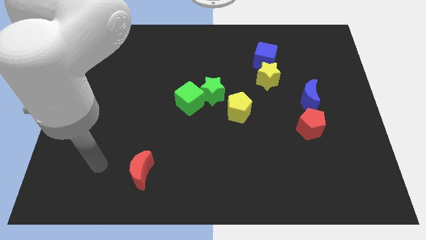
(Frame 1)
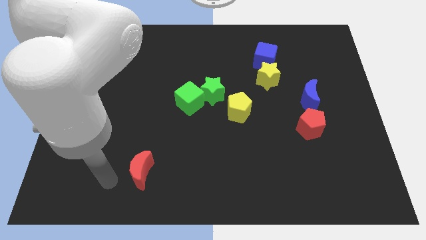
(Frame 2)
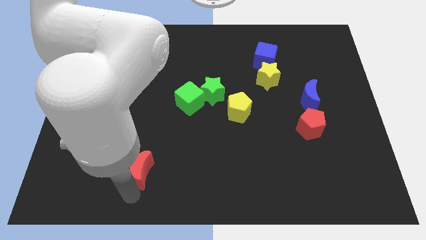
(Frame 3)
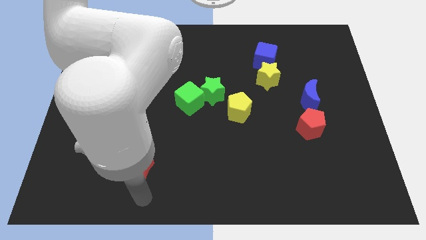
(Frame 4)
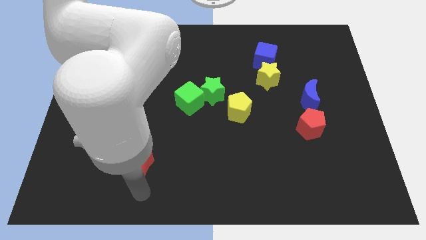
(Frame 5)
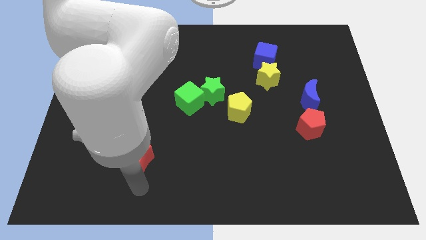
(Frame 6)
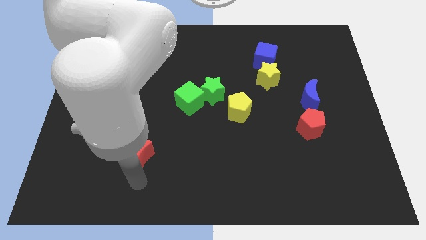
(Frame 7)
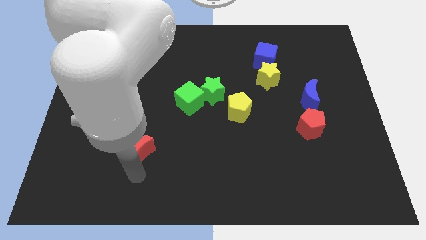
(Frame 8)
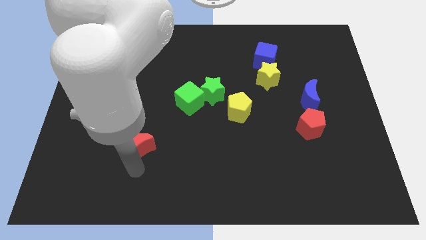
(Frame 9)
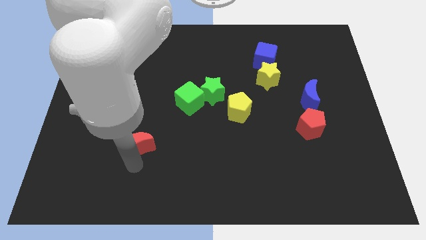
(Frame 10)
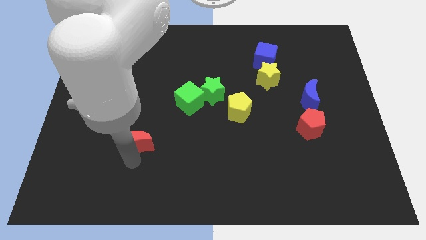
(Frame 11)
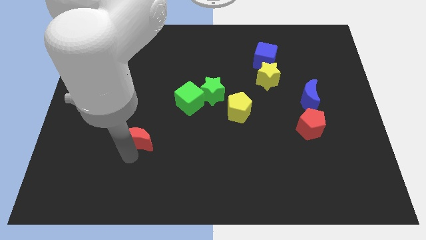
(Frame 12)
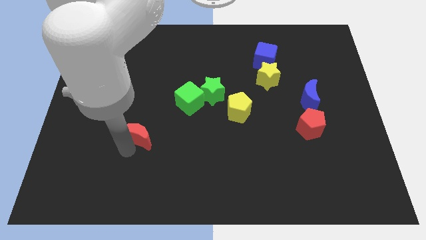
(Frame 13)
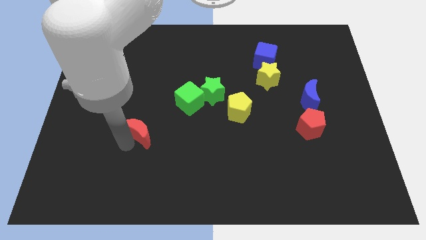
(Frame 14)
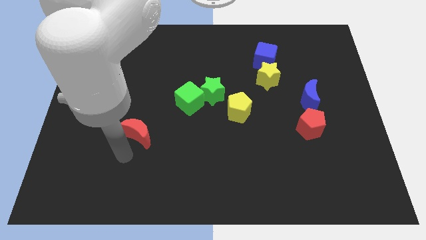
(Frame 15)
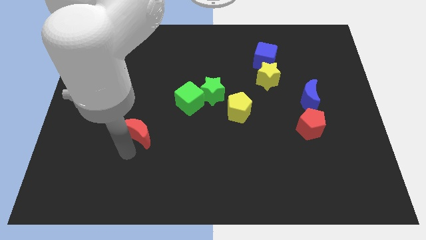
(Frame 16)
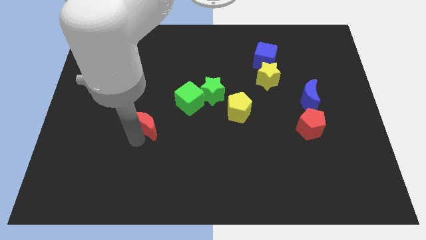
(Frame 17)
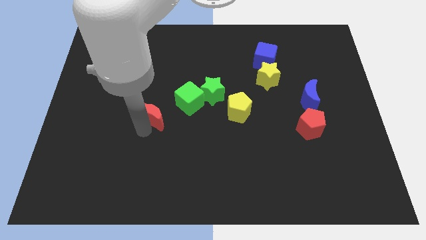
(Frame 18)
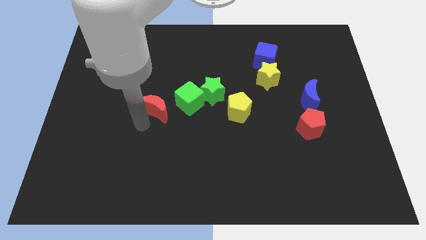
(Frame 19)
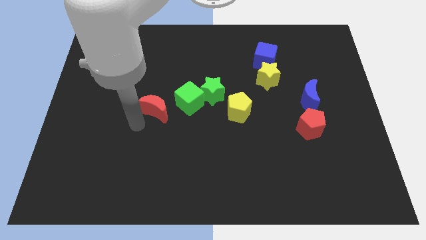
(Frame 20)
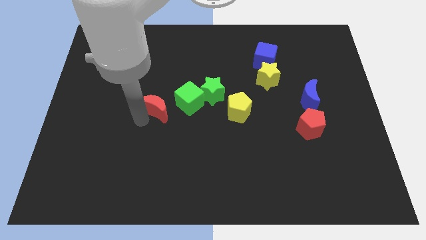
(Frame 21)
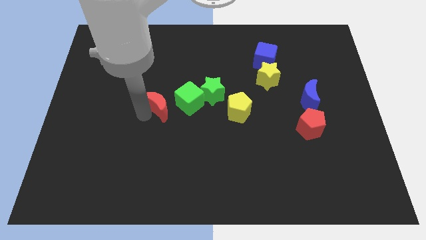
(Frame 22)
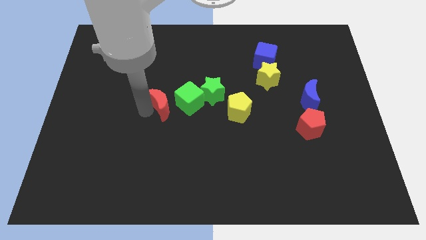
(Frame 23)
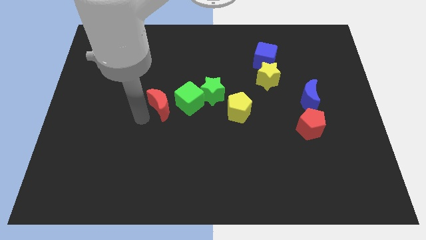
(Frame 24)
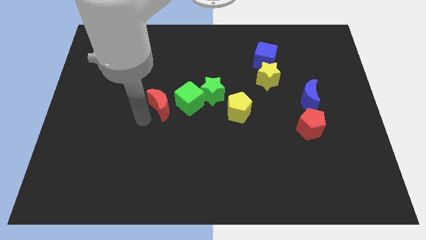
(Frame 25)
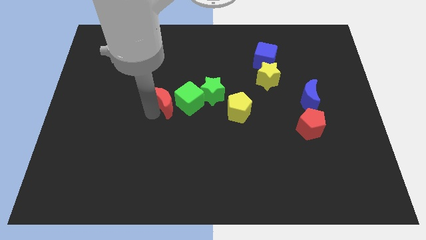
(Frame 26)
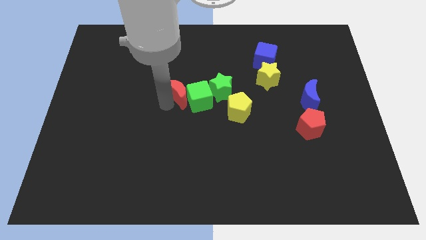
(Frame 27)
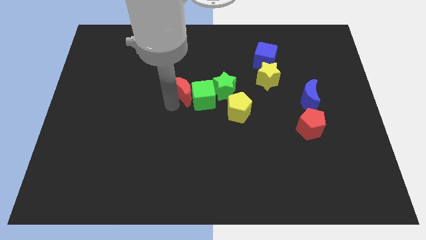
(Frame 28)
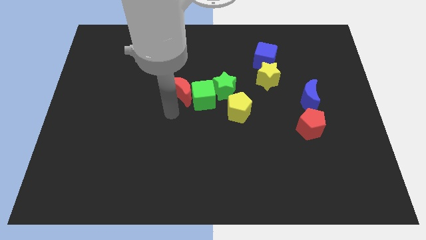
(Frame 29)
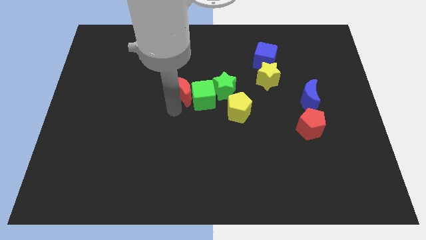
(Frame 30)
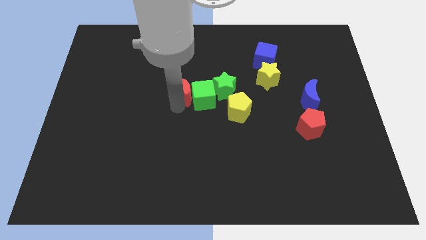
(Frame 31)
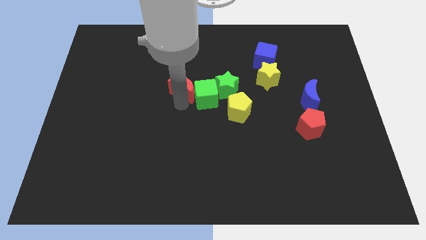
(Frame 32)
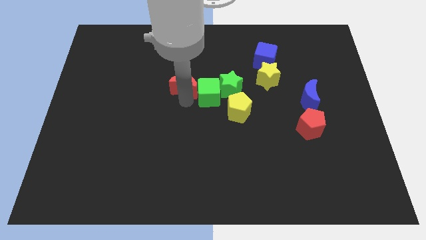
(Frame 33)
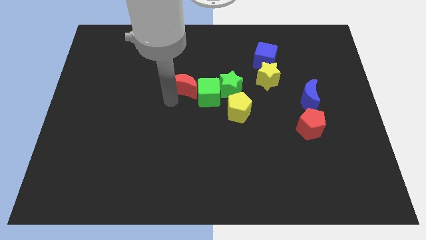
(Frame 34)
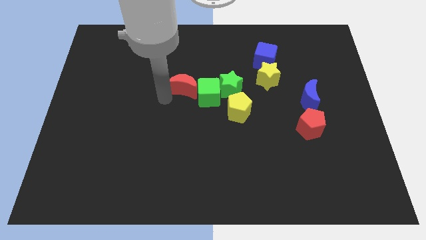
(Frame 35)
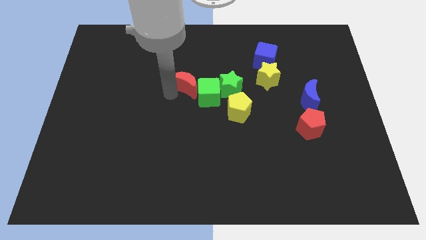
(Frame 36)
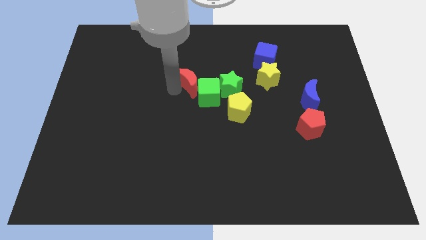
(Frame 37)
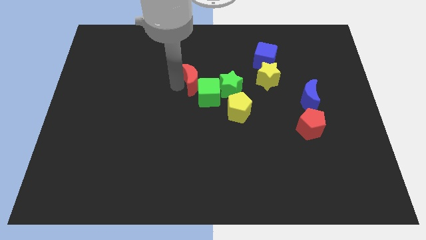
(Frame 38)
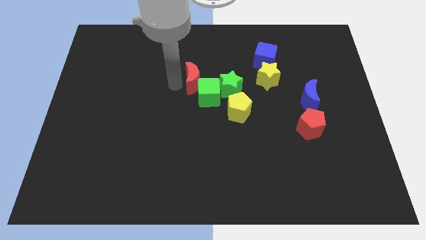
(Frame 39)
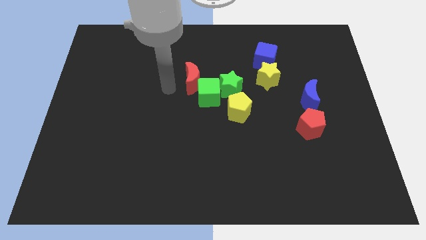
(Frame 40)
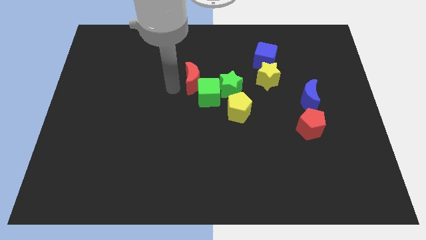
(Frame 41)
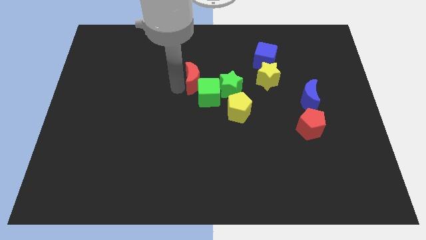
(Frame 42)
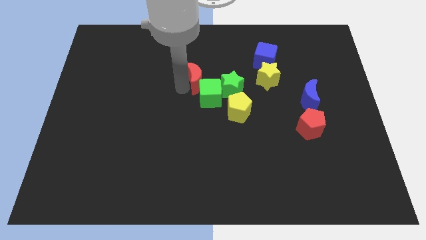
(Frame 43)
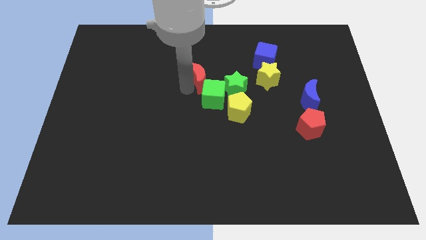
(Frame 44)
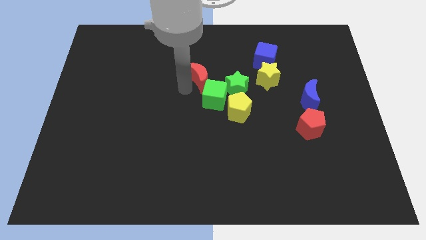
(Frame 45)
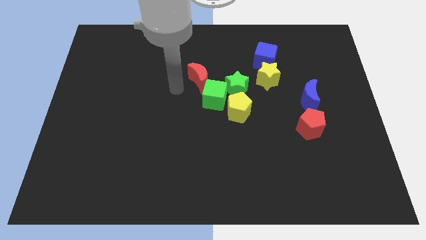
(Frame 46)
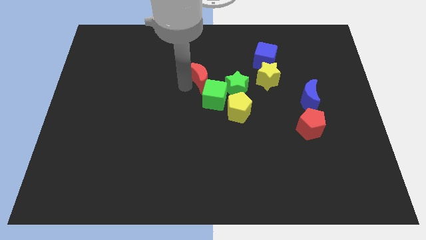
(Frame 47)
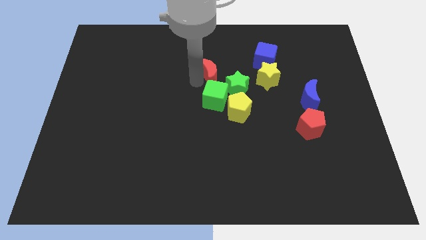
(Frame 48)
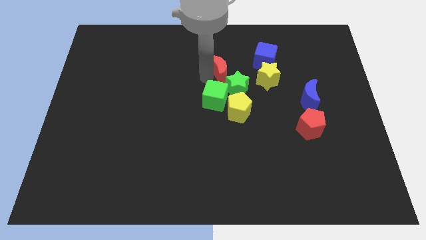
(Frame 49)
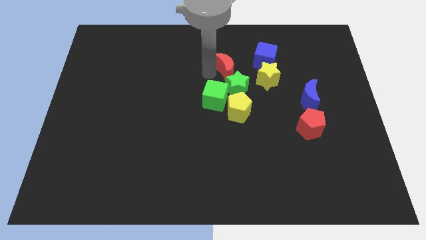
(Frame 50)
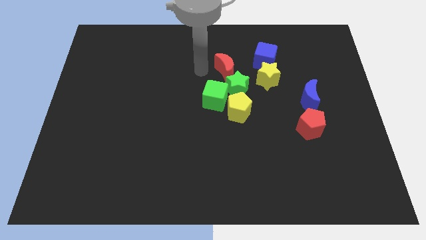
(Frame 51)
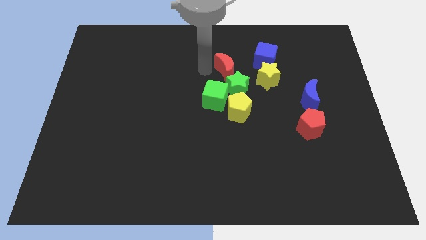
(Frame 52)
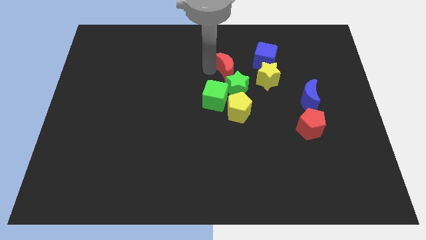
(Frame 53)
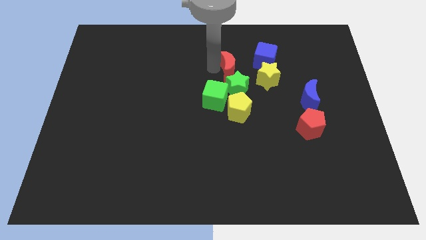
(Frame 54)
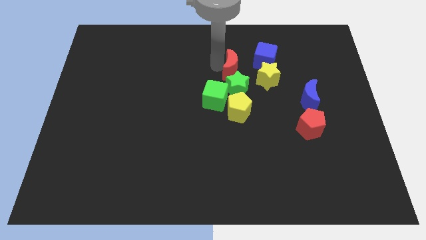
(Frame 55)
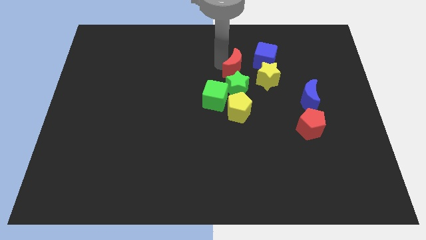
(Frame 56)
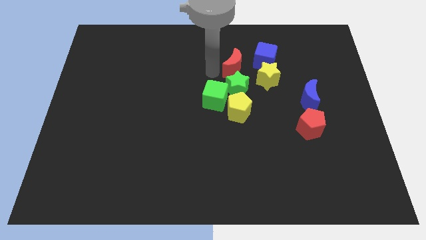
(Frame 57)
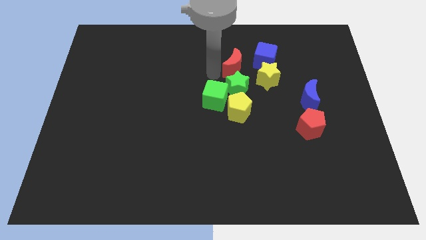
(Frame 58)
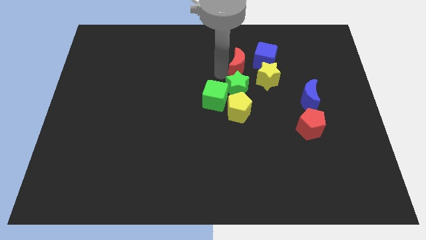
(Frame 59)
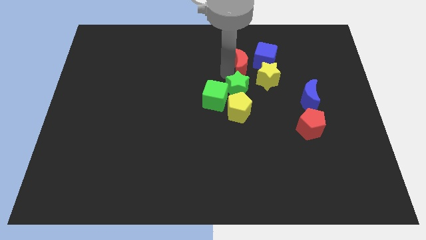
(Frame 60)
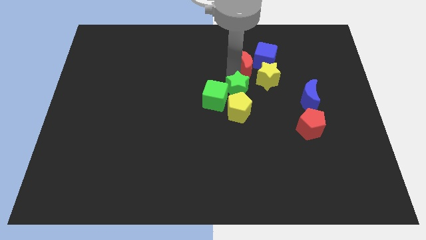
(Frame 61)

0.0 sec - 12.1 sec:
push the red moon to the blue cube

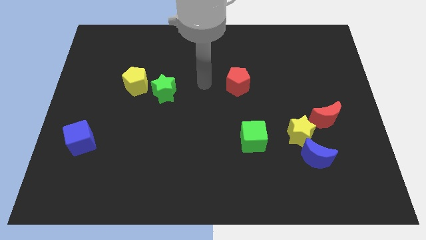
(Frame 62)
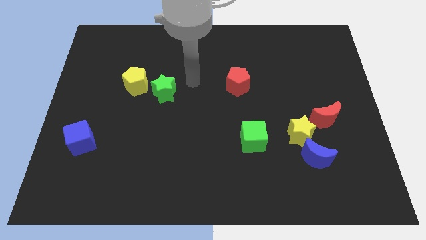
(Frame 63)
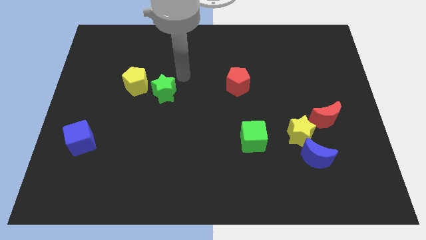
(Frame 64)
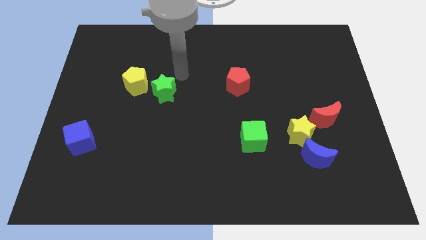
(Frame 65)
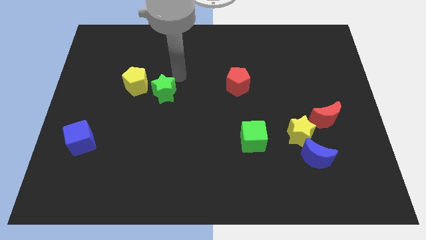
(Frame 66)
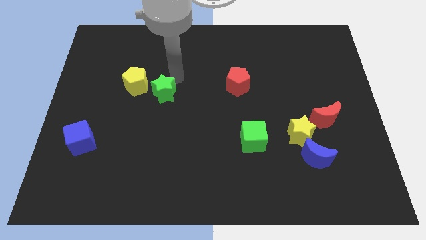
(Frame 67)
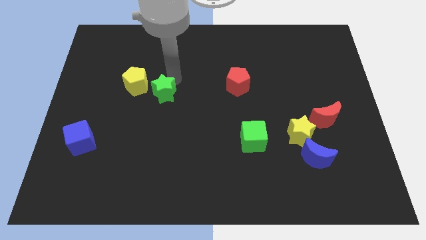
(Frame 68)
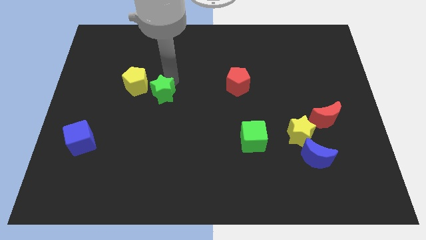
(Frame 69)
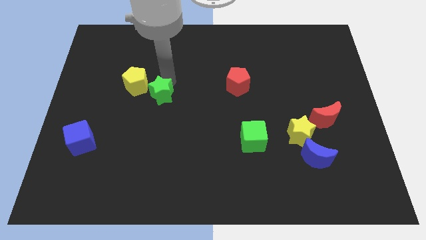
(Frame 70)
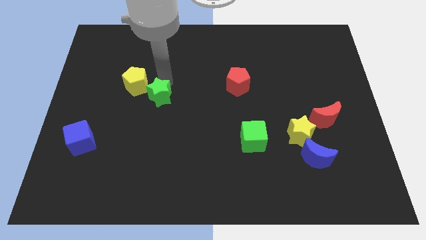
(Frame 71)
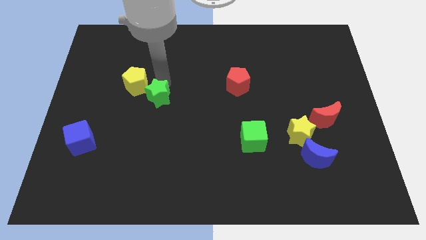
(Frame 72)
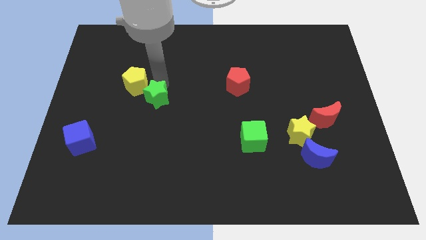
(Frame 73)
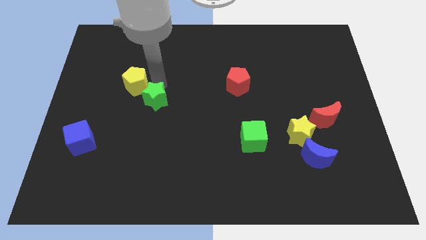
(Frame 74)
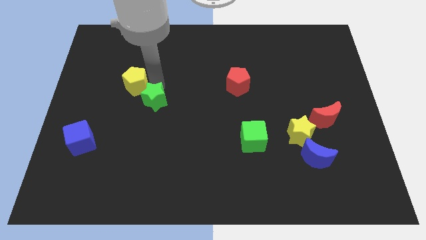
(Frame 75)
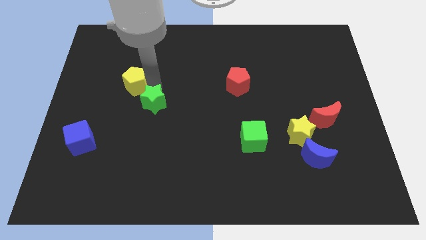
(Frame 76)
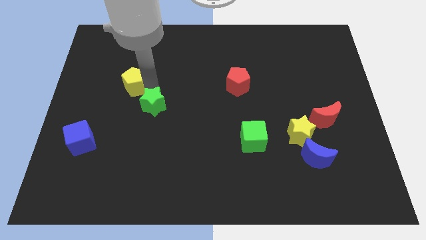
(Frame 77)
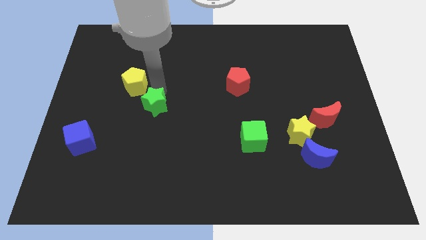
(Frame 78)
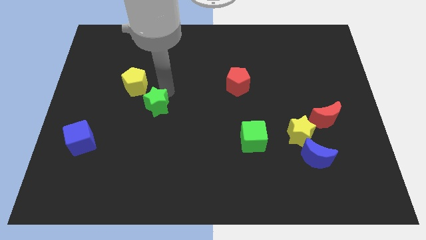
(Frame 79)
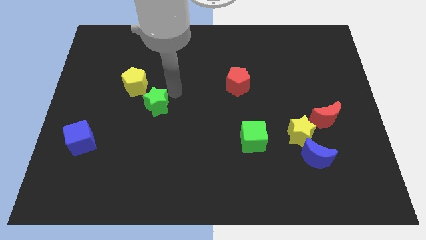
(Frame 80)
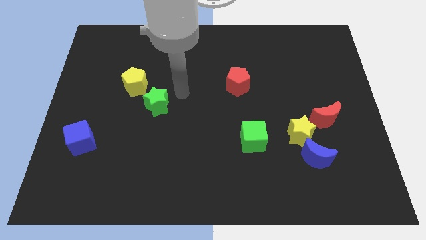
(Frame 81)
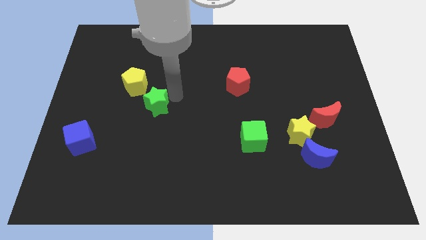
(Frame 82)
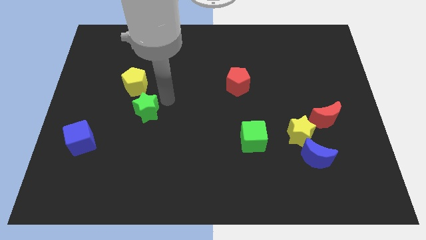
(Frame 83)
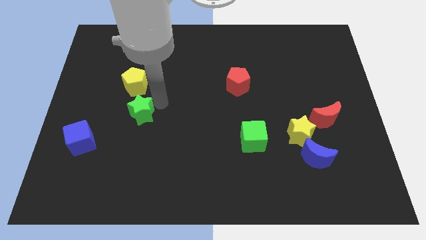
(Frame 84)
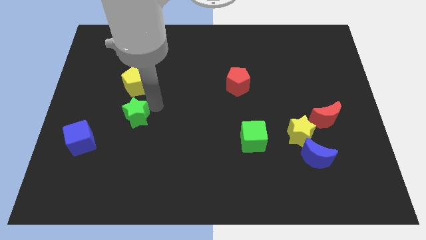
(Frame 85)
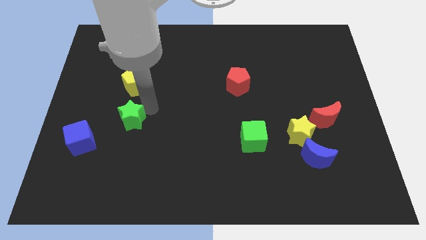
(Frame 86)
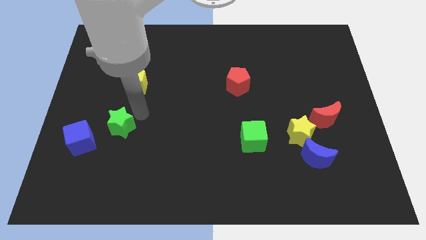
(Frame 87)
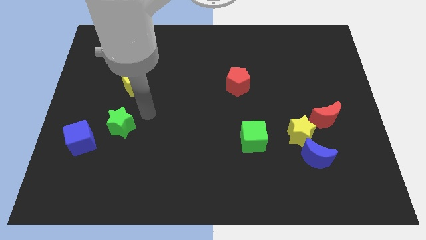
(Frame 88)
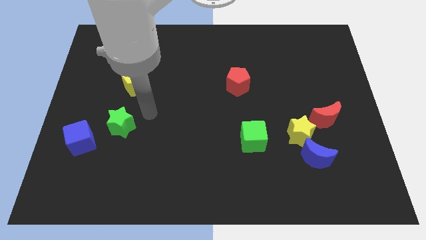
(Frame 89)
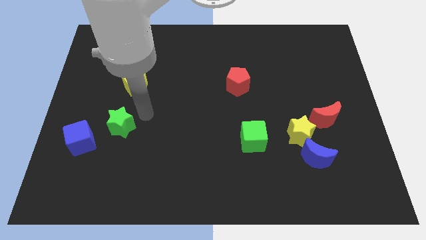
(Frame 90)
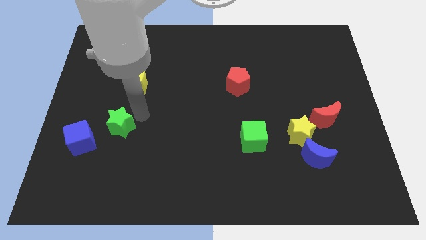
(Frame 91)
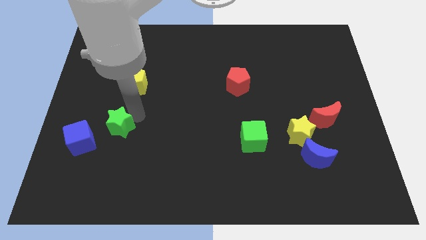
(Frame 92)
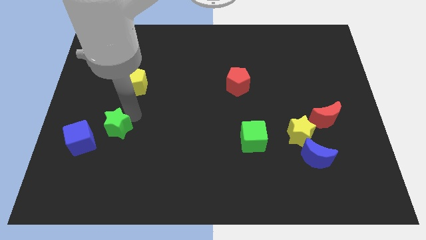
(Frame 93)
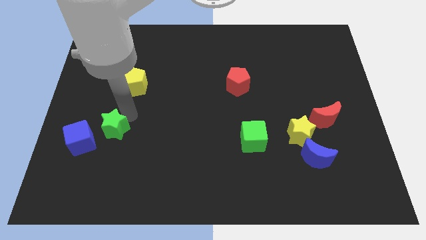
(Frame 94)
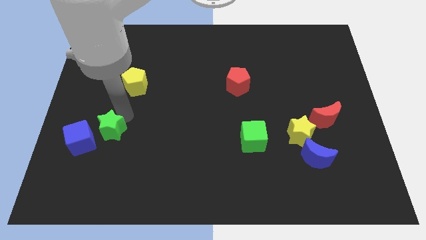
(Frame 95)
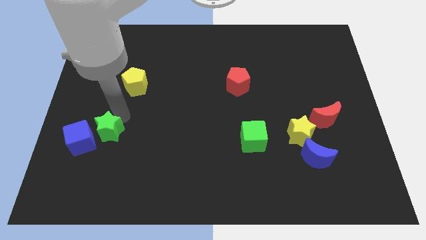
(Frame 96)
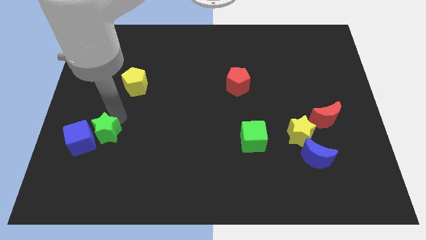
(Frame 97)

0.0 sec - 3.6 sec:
move the green star next to the blue cube
